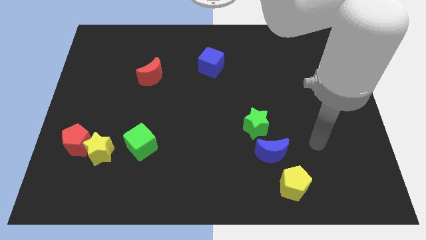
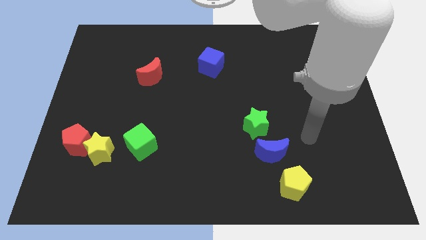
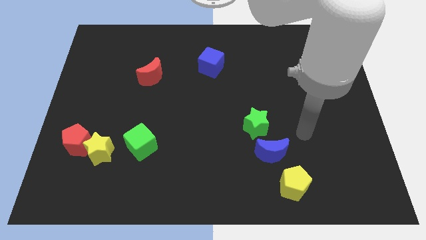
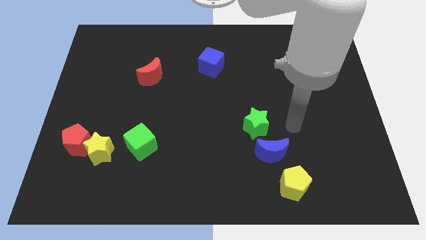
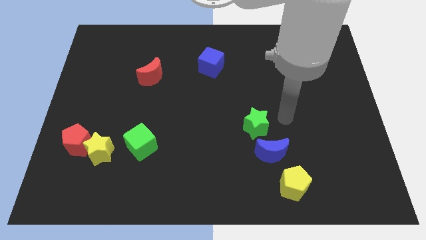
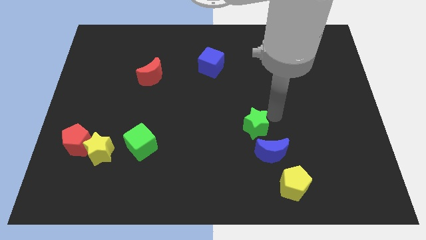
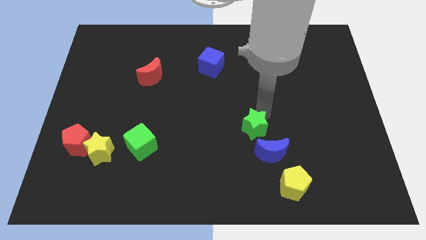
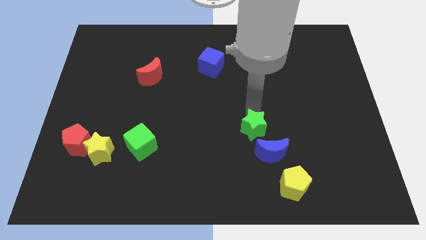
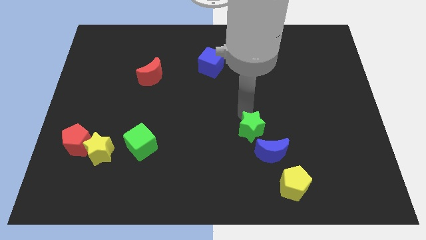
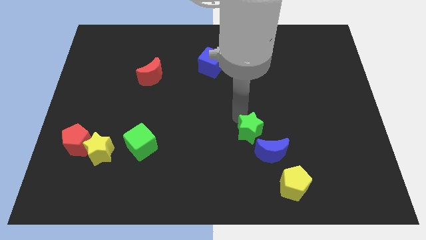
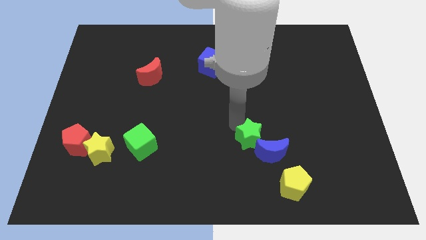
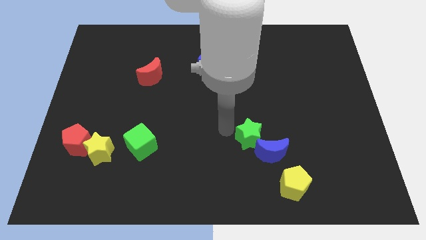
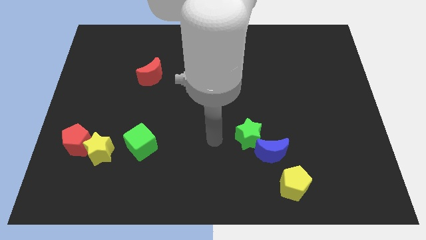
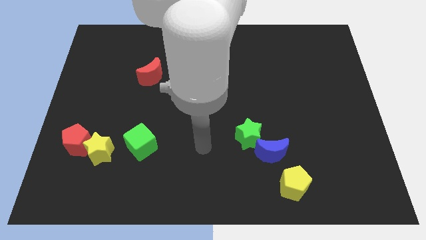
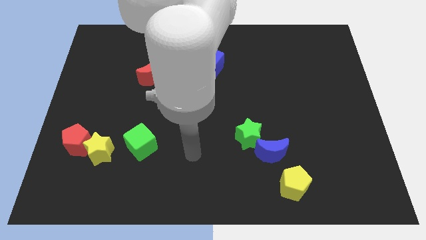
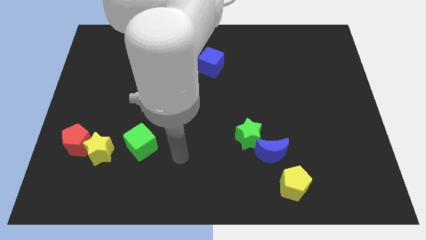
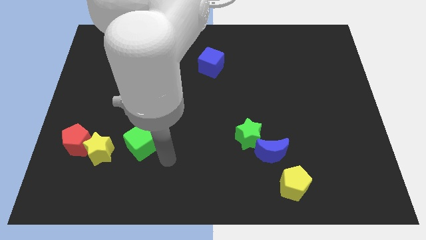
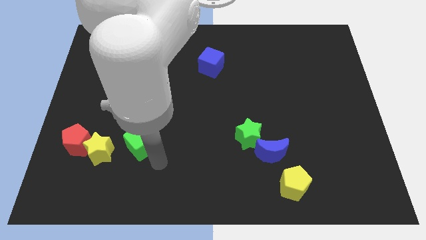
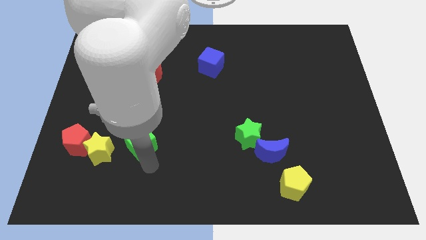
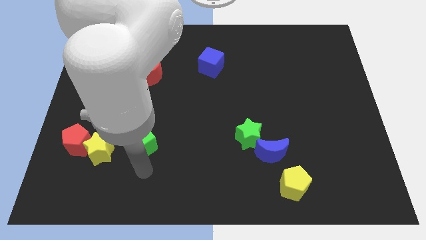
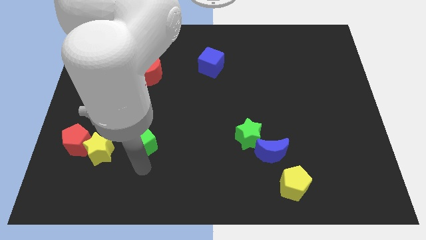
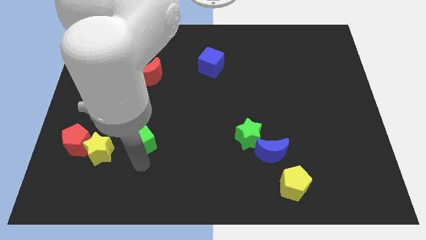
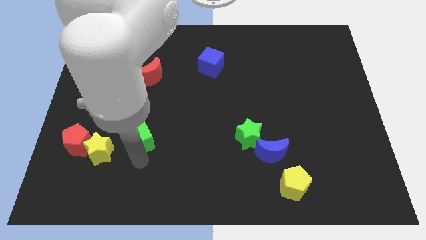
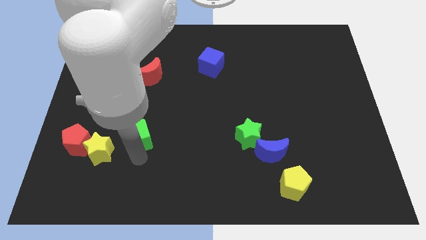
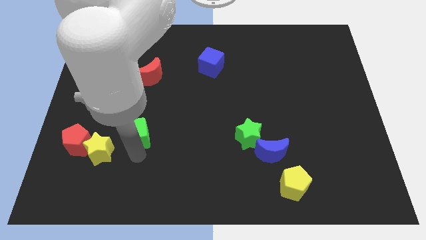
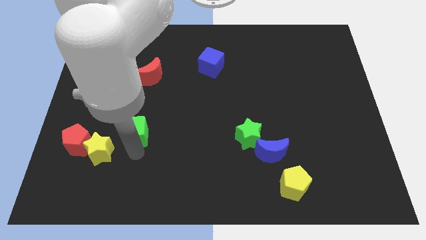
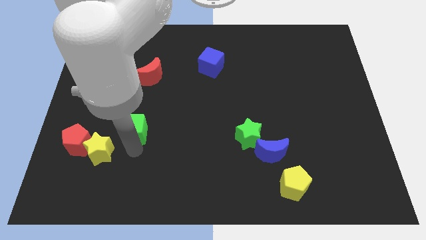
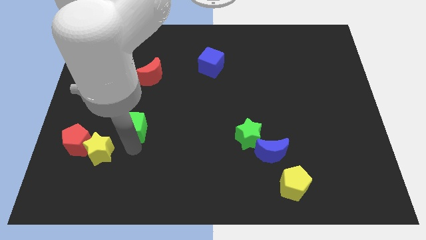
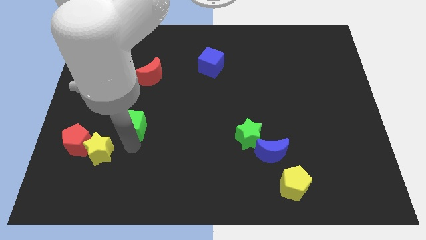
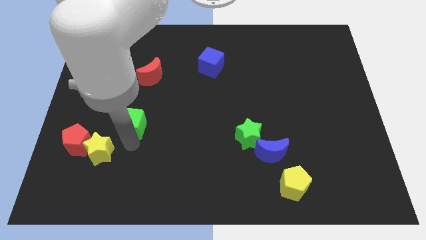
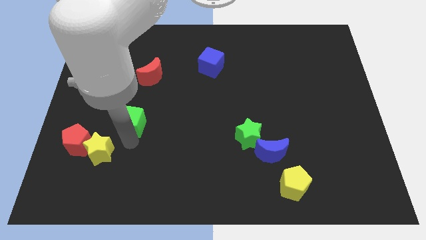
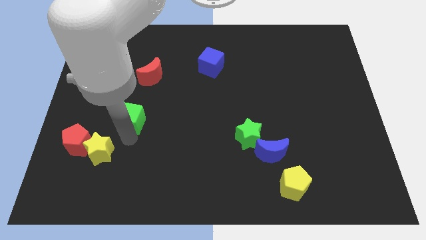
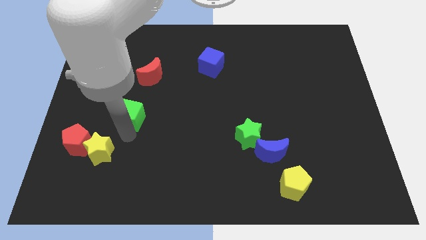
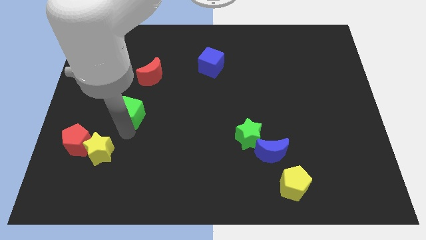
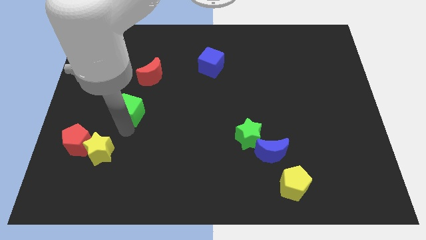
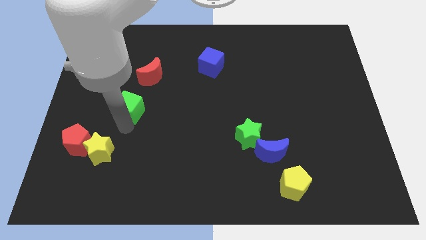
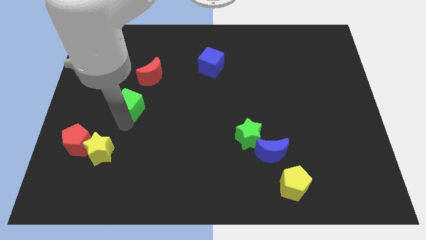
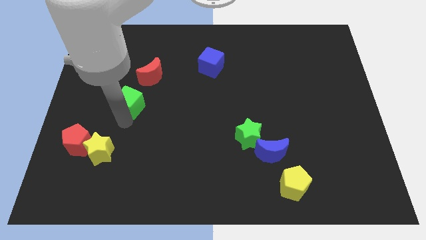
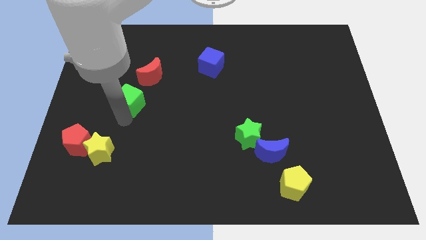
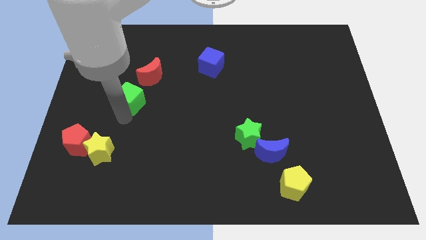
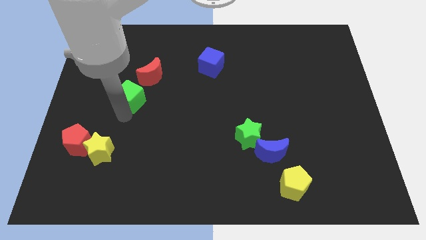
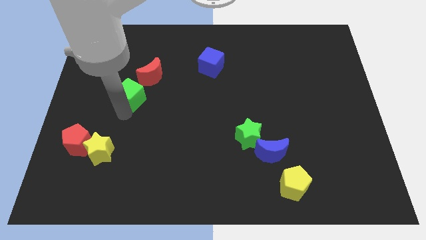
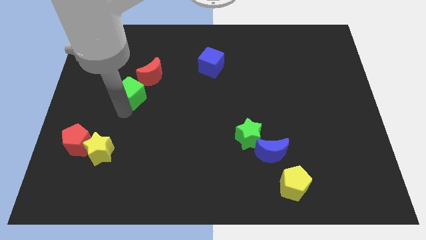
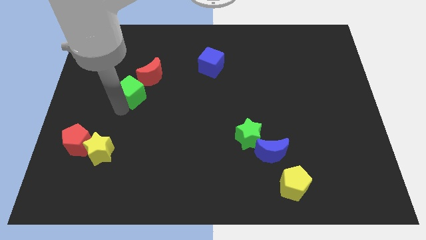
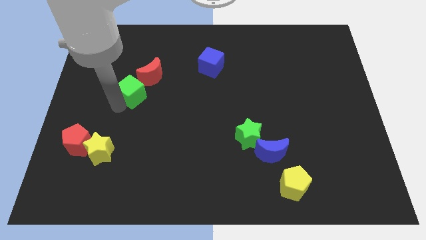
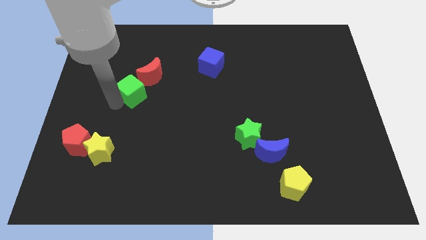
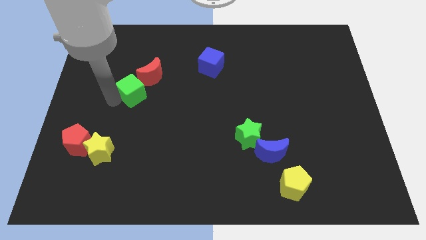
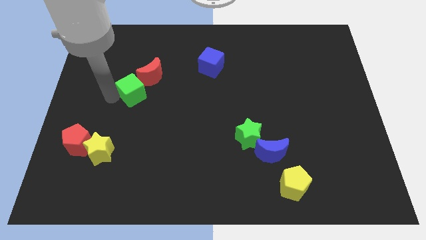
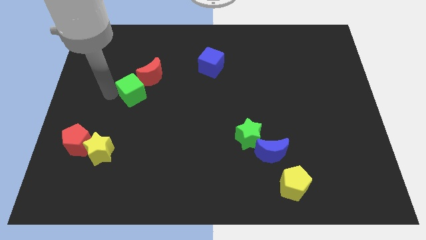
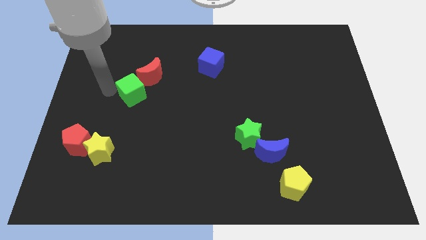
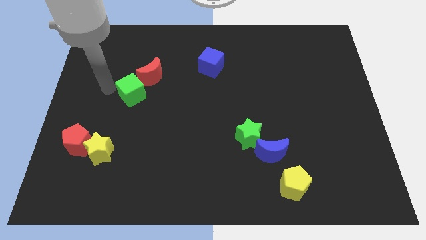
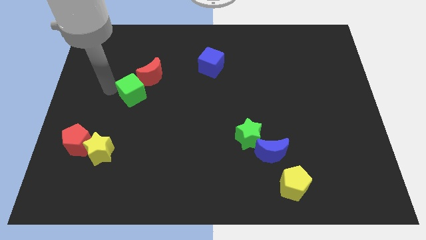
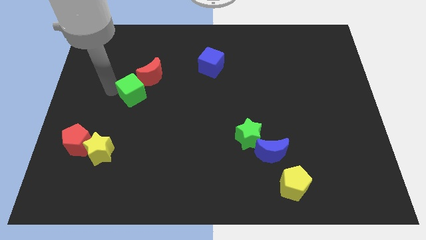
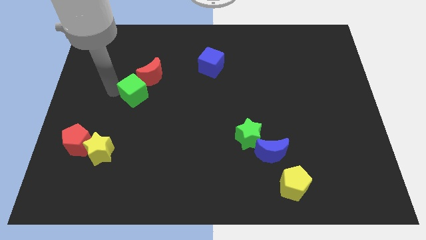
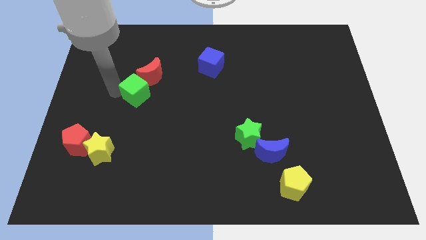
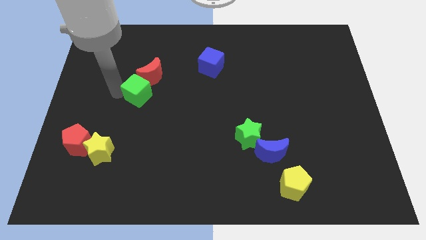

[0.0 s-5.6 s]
put the green cube close to the red moon

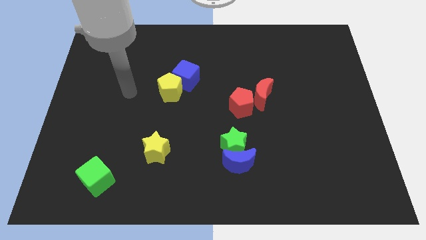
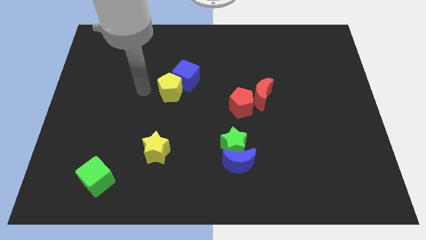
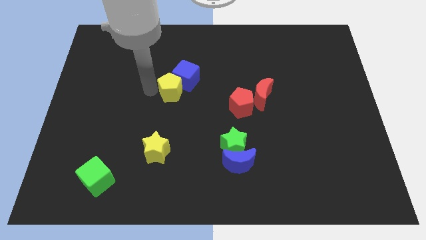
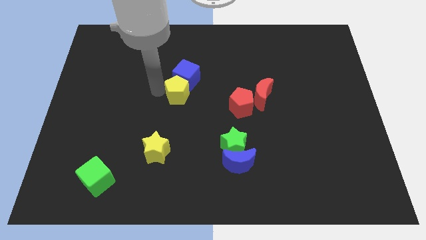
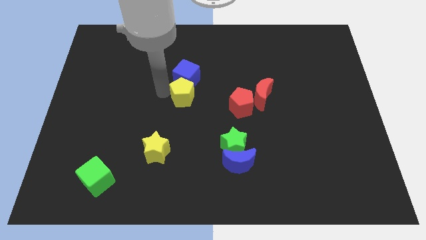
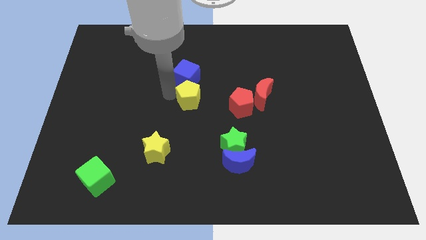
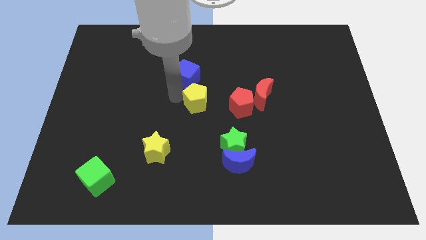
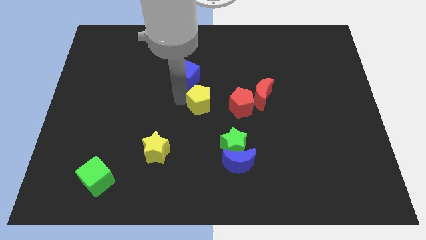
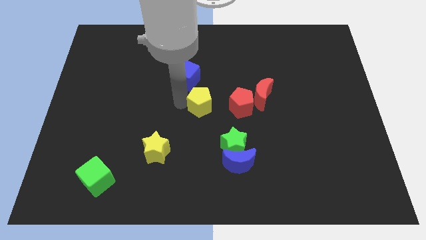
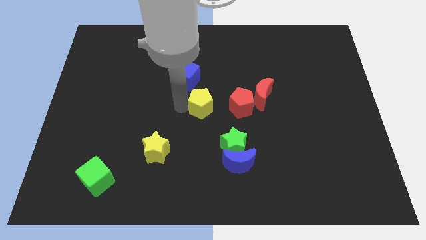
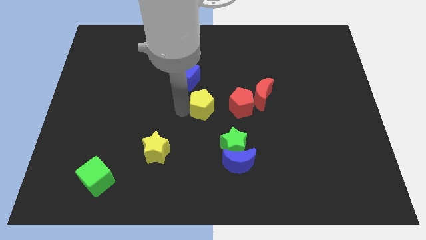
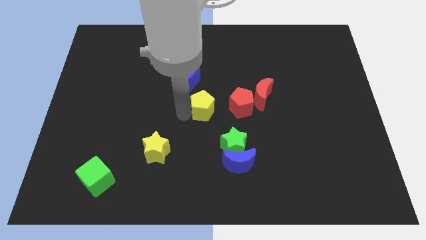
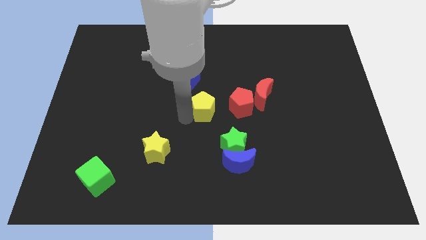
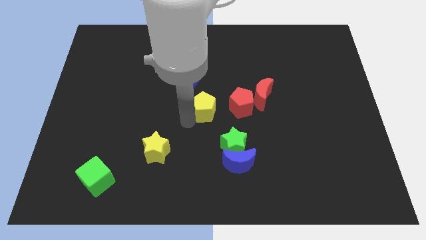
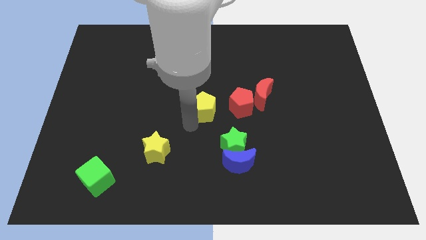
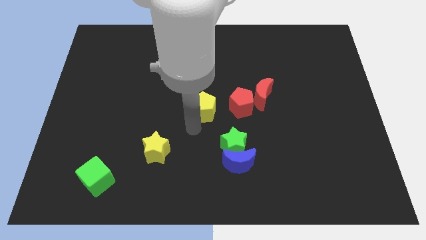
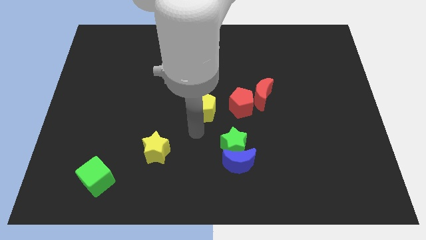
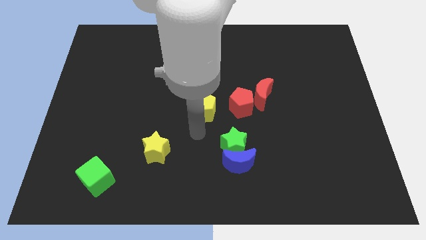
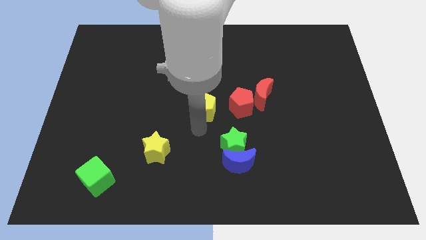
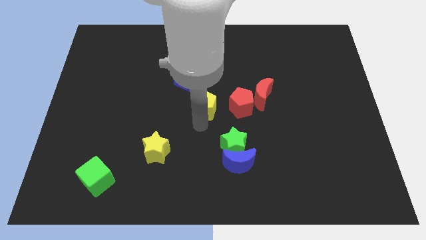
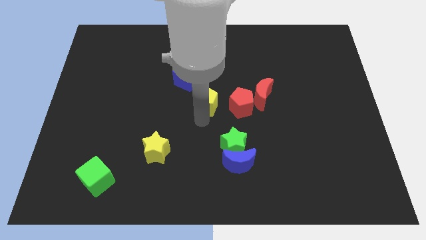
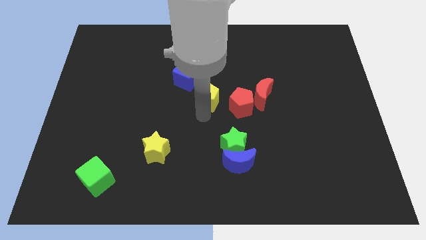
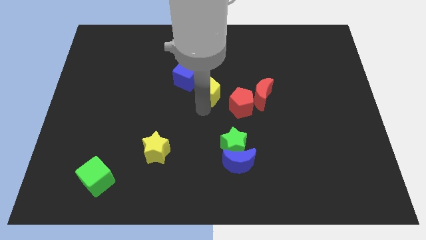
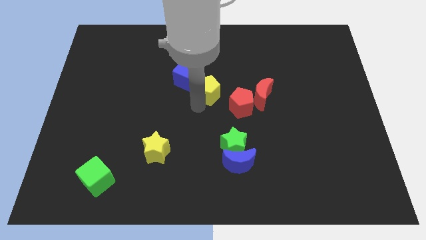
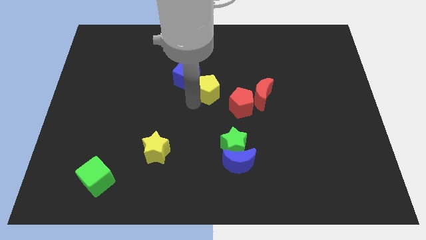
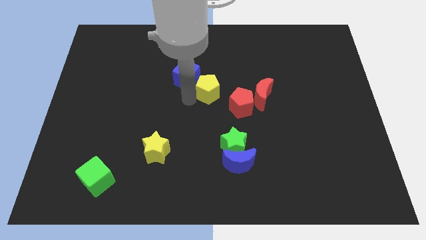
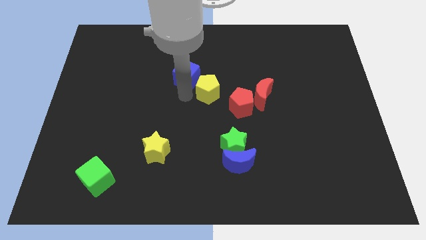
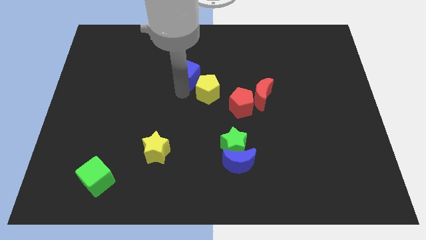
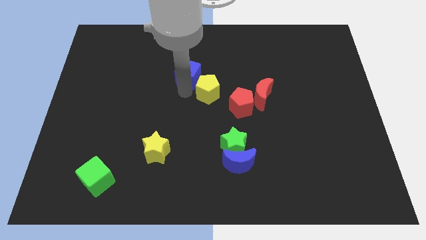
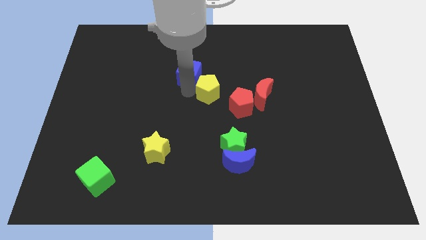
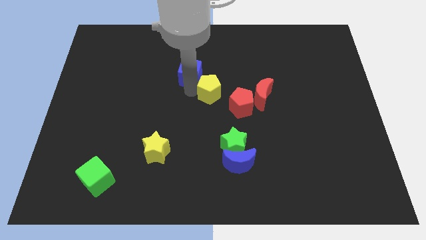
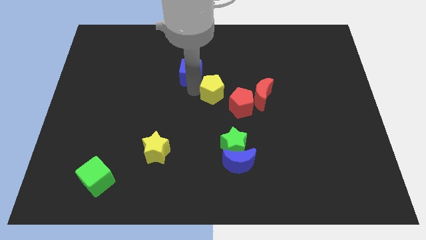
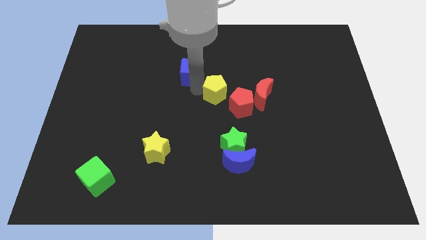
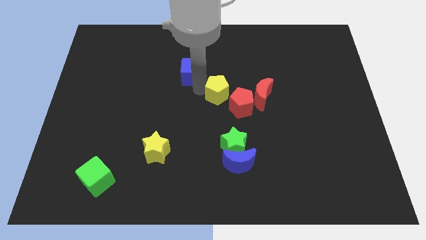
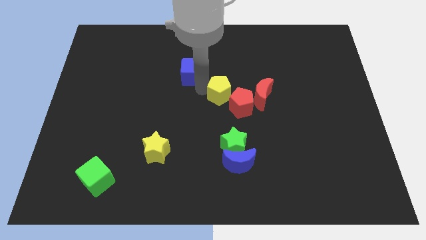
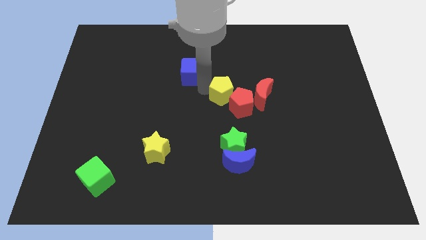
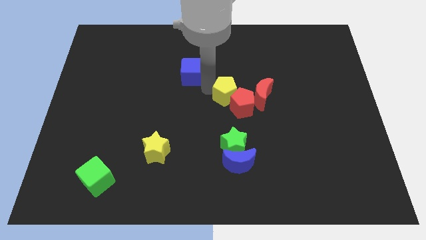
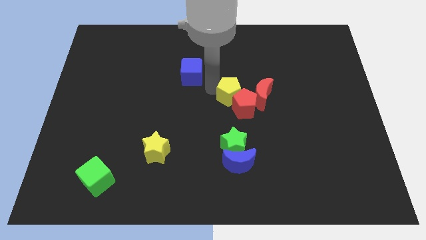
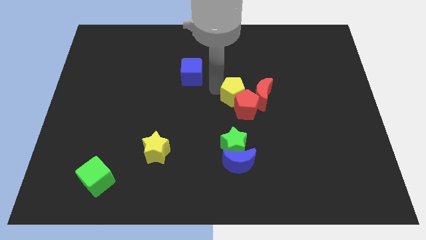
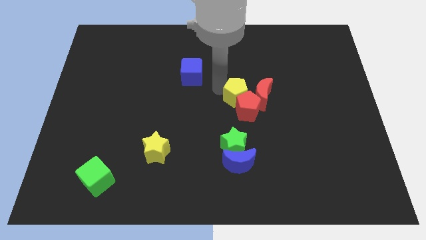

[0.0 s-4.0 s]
put the yellow pentagon close to the red moon
